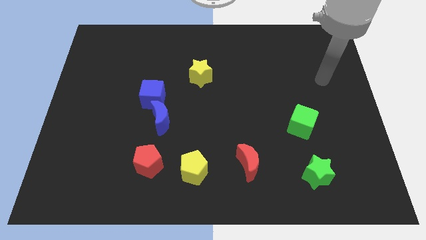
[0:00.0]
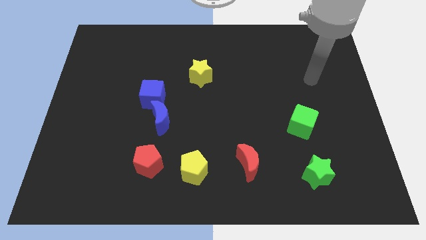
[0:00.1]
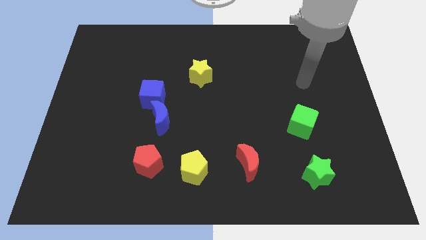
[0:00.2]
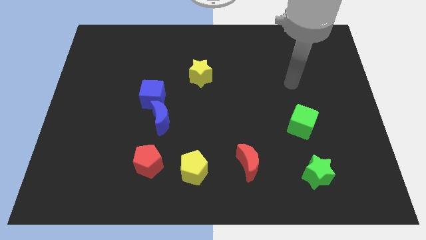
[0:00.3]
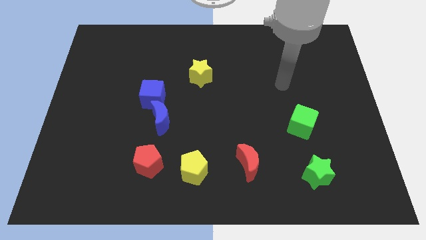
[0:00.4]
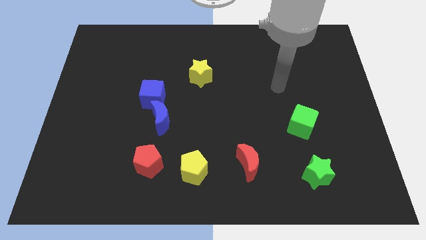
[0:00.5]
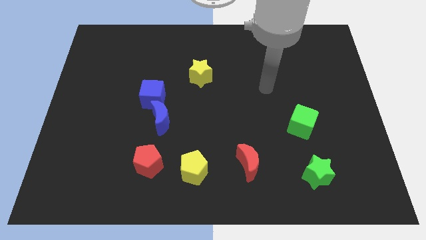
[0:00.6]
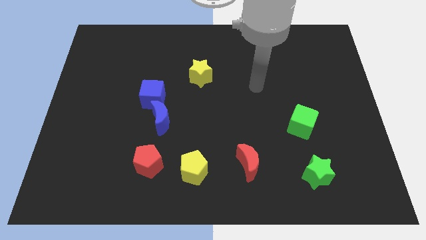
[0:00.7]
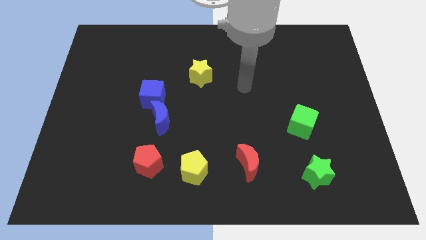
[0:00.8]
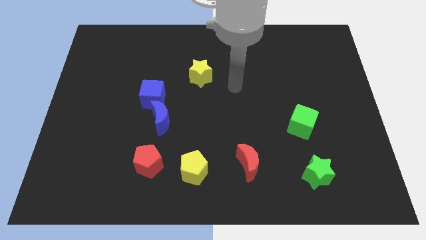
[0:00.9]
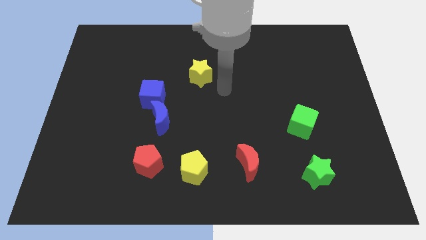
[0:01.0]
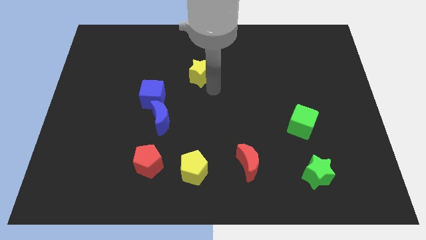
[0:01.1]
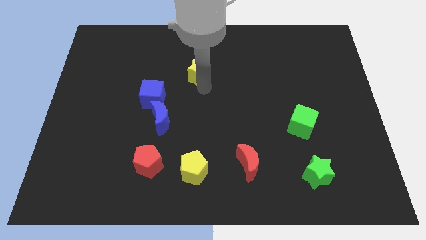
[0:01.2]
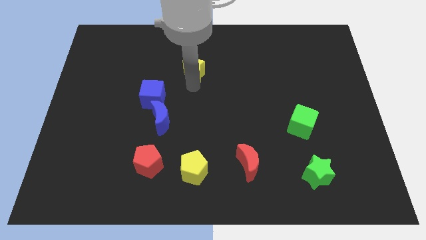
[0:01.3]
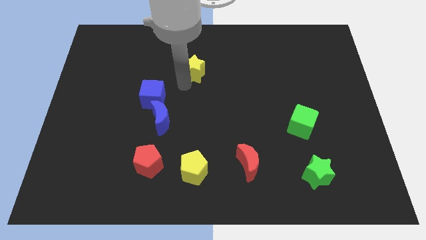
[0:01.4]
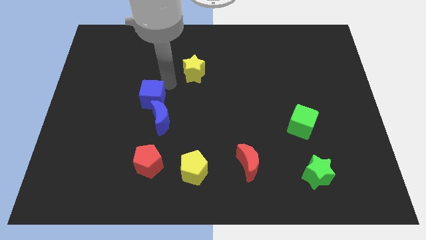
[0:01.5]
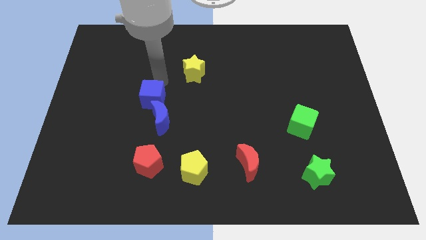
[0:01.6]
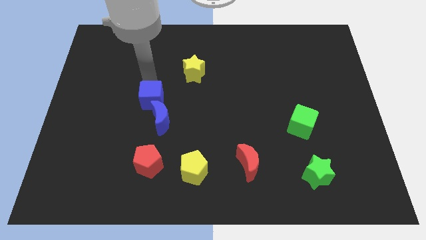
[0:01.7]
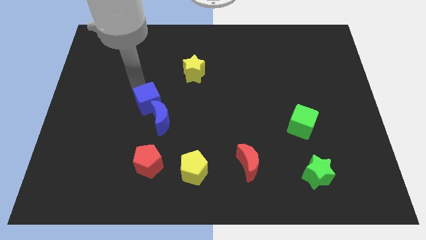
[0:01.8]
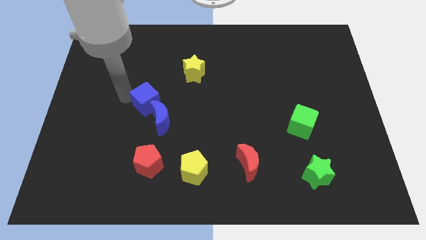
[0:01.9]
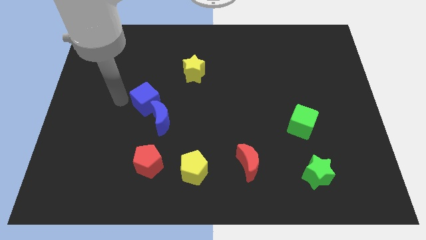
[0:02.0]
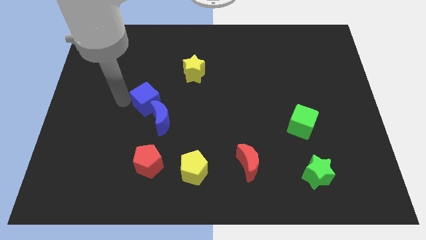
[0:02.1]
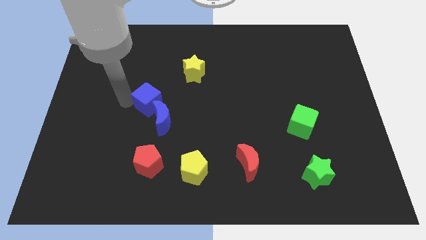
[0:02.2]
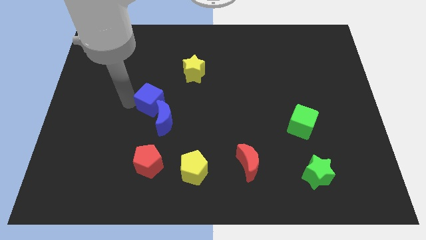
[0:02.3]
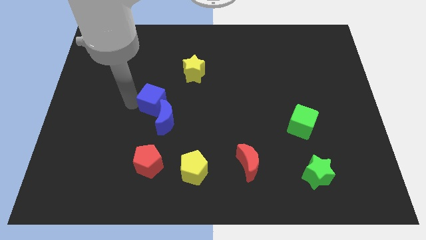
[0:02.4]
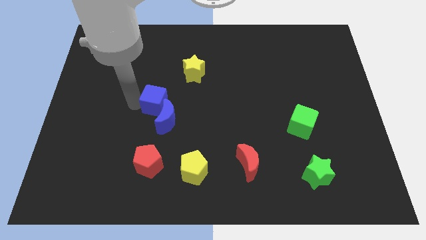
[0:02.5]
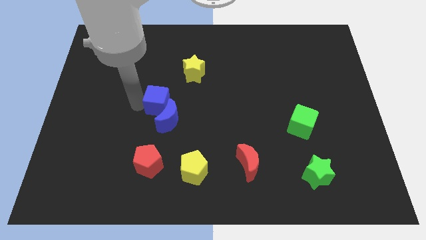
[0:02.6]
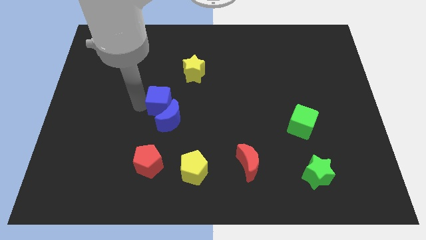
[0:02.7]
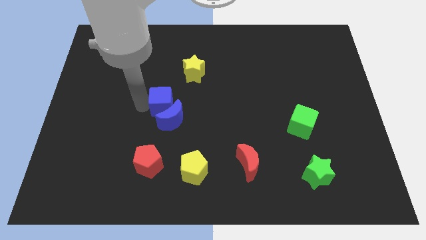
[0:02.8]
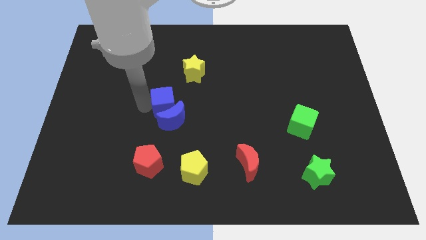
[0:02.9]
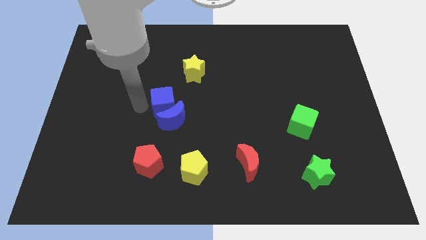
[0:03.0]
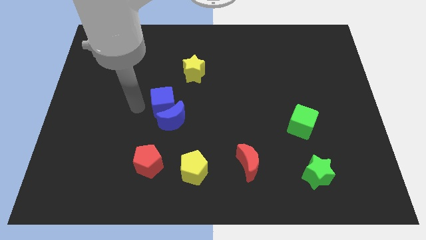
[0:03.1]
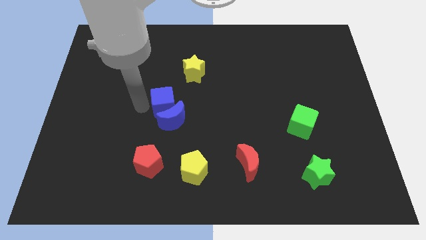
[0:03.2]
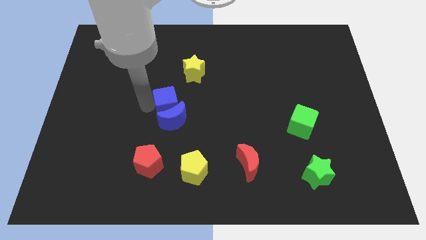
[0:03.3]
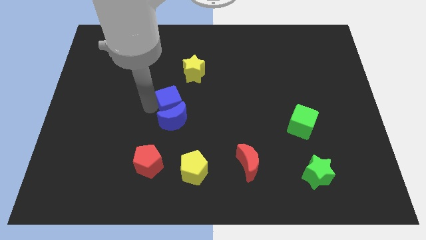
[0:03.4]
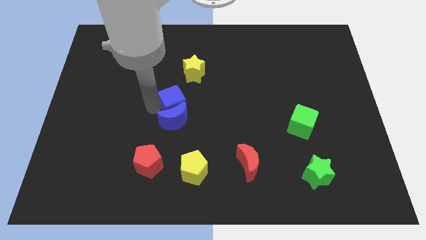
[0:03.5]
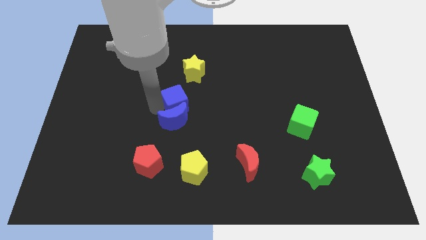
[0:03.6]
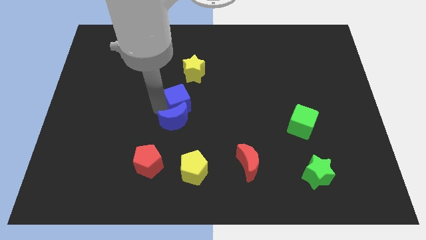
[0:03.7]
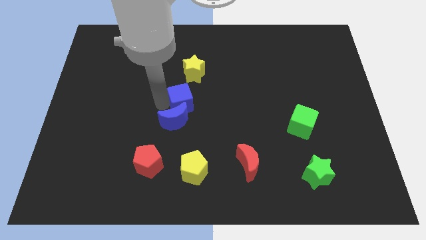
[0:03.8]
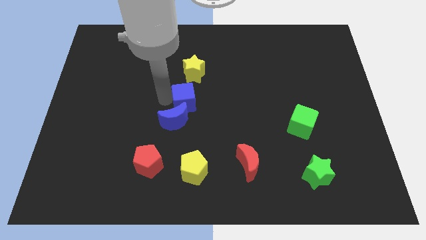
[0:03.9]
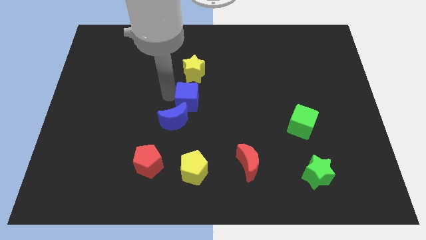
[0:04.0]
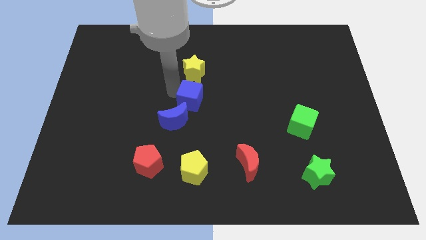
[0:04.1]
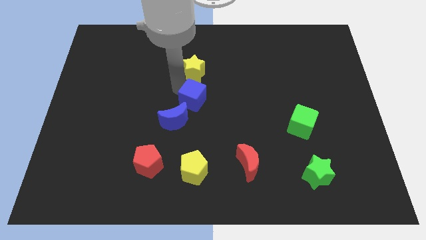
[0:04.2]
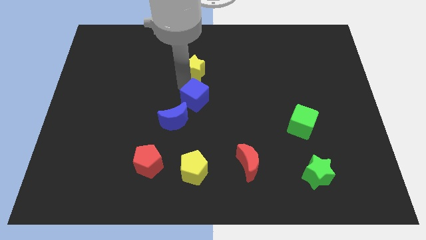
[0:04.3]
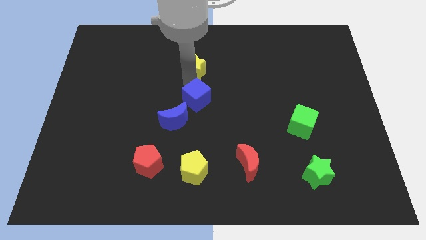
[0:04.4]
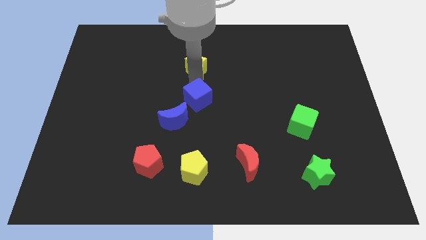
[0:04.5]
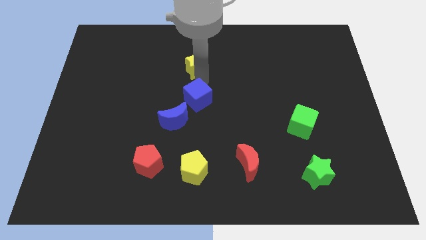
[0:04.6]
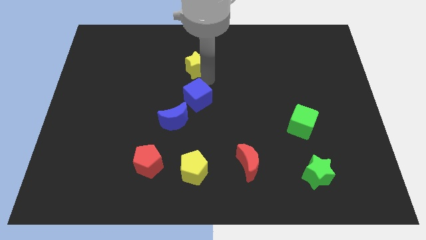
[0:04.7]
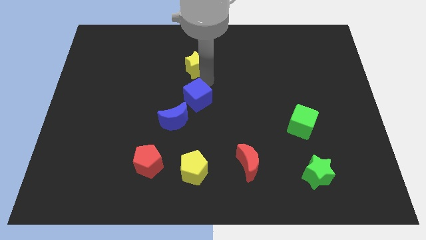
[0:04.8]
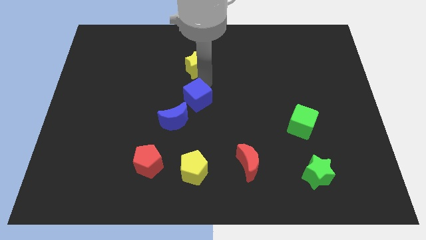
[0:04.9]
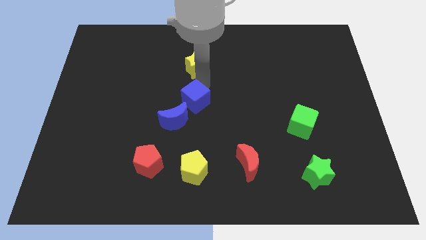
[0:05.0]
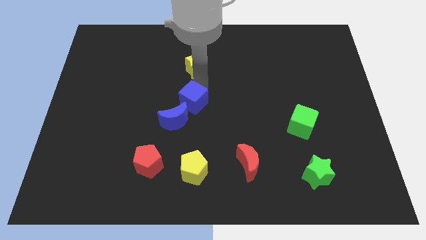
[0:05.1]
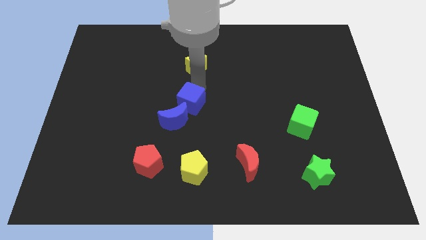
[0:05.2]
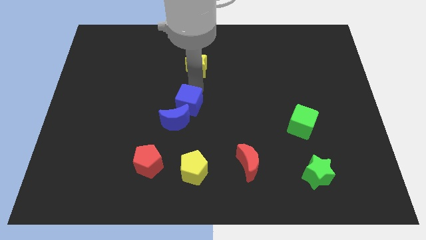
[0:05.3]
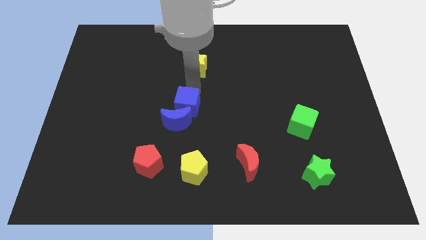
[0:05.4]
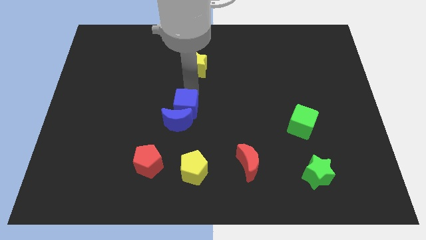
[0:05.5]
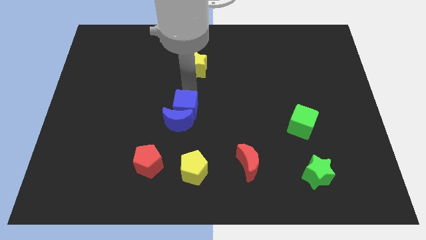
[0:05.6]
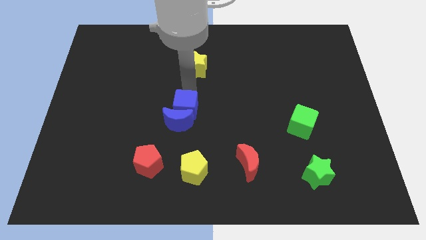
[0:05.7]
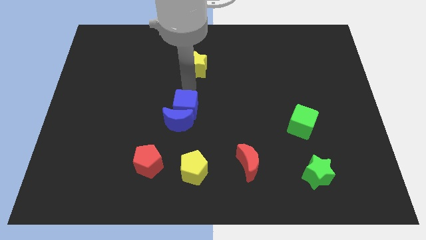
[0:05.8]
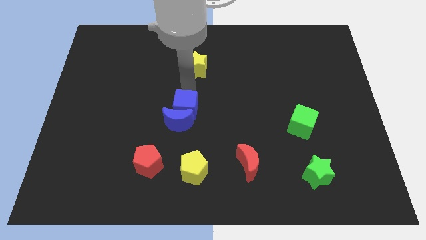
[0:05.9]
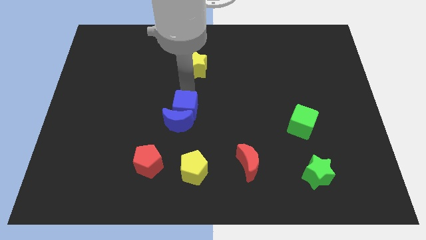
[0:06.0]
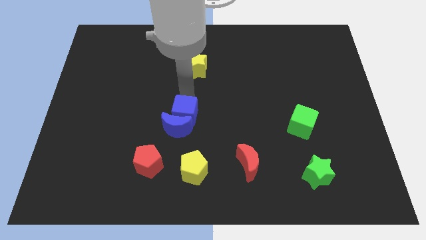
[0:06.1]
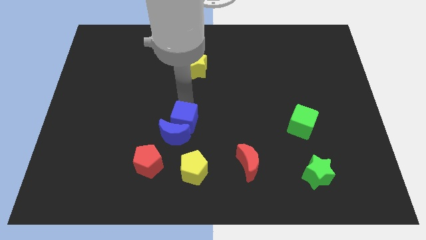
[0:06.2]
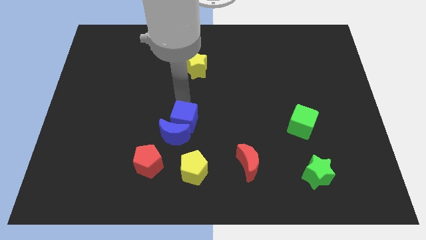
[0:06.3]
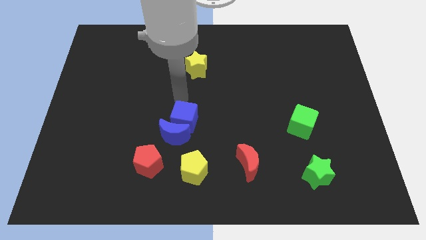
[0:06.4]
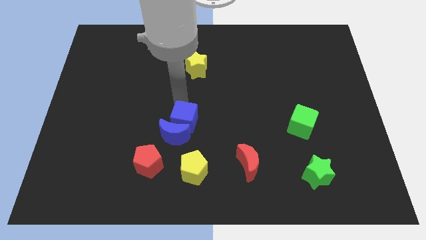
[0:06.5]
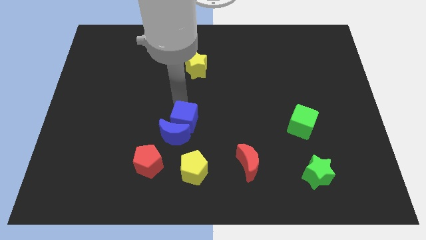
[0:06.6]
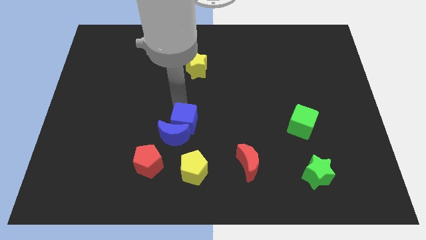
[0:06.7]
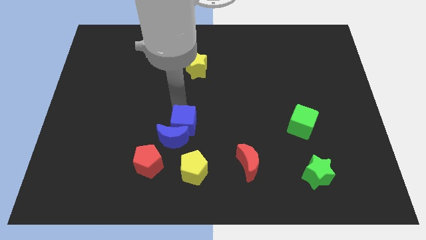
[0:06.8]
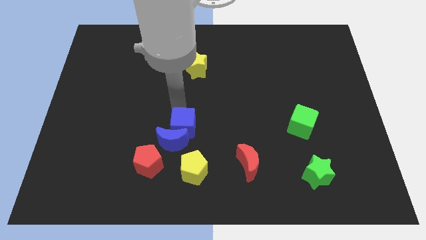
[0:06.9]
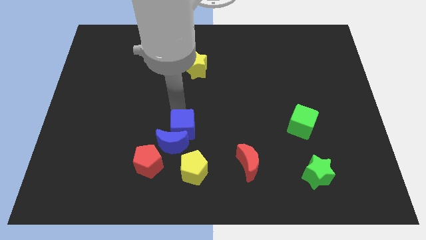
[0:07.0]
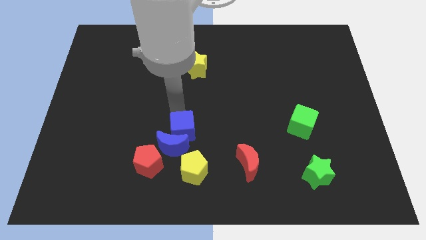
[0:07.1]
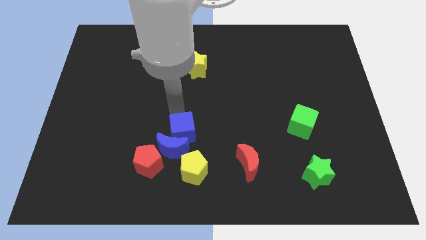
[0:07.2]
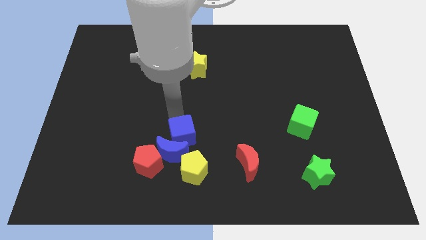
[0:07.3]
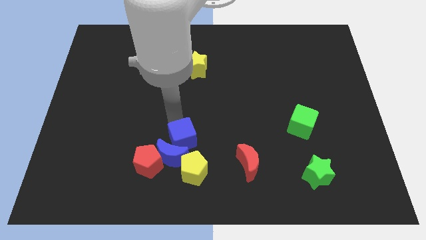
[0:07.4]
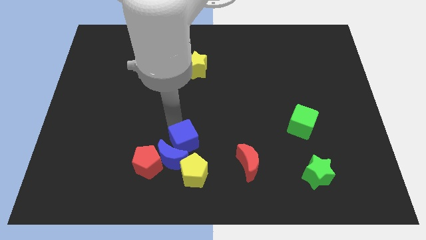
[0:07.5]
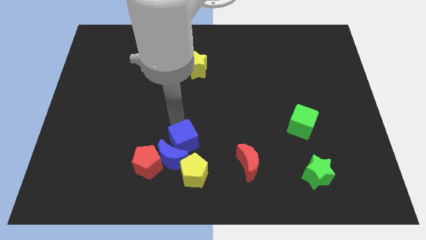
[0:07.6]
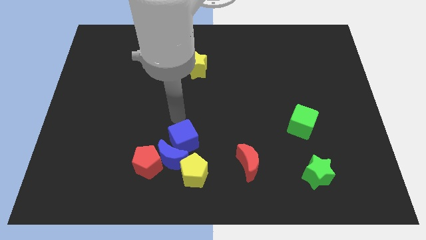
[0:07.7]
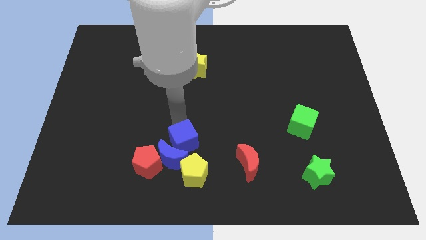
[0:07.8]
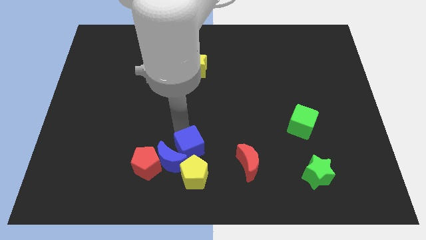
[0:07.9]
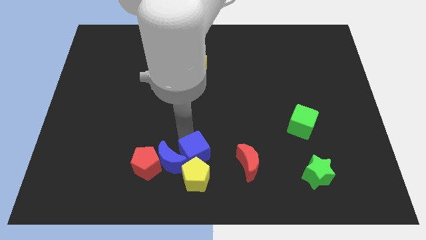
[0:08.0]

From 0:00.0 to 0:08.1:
move the blue cube to the yellow pentagon
